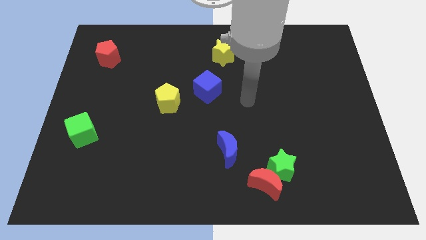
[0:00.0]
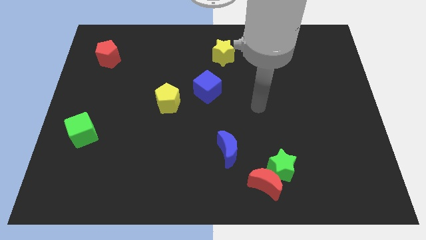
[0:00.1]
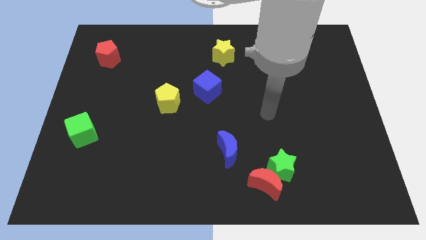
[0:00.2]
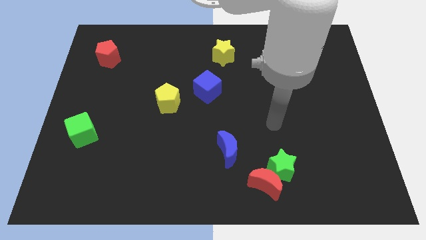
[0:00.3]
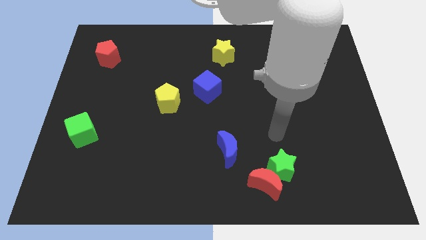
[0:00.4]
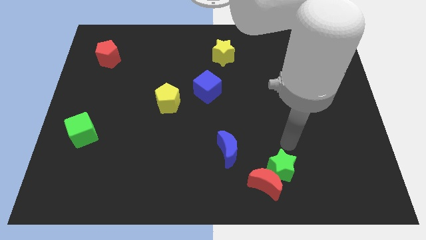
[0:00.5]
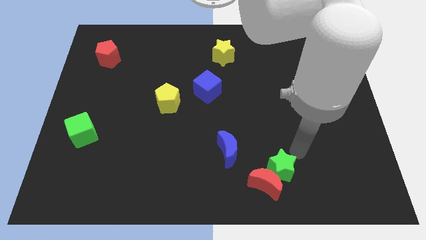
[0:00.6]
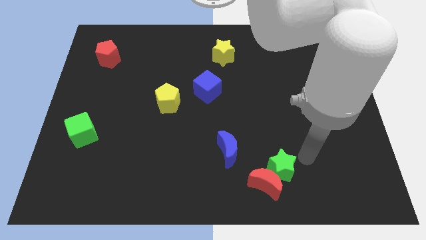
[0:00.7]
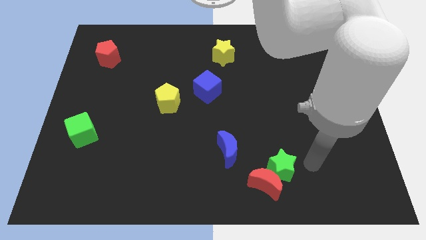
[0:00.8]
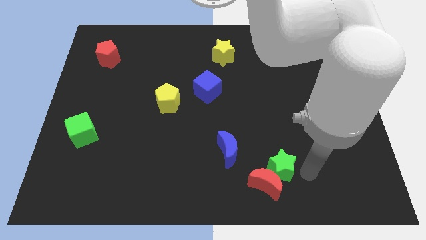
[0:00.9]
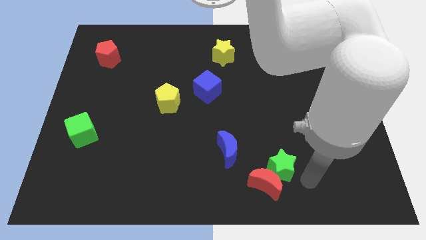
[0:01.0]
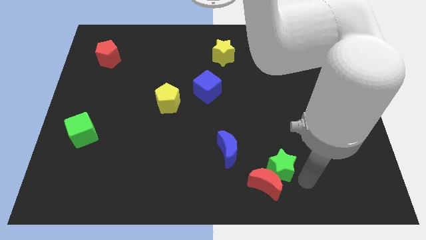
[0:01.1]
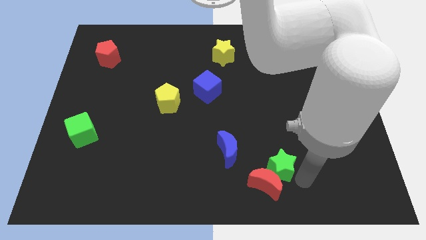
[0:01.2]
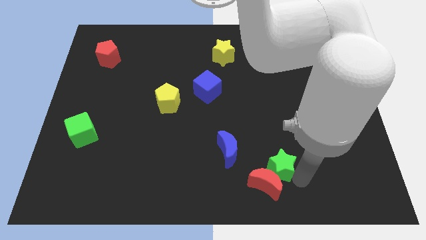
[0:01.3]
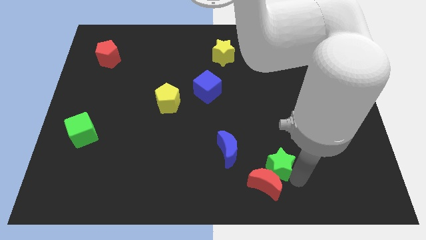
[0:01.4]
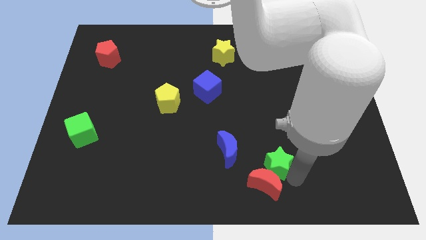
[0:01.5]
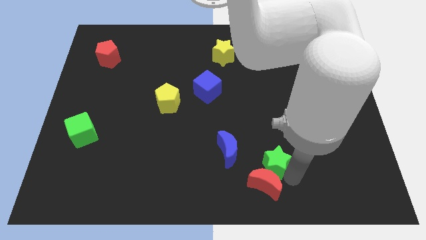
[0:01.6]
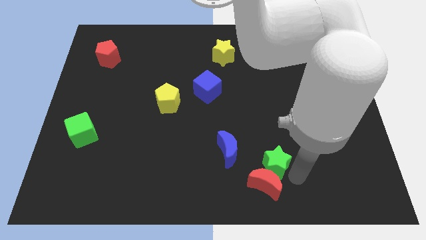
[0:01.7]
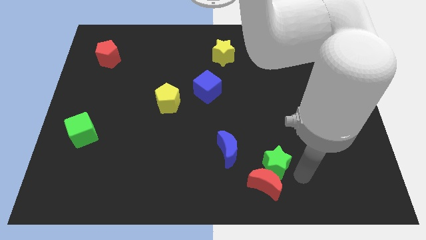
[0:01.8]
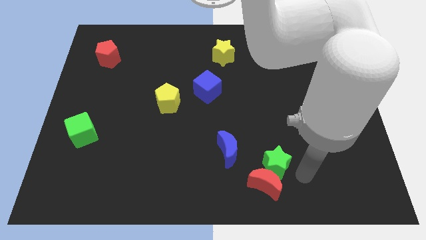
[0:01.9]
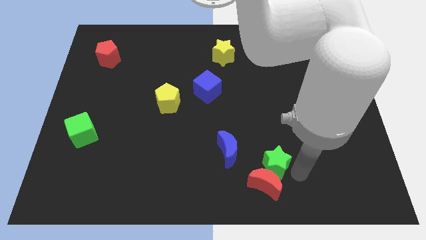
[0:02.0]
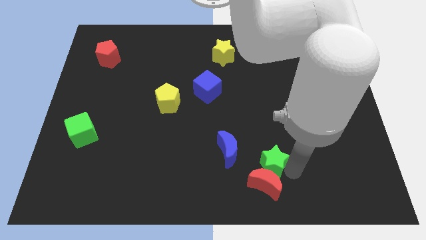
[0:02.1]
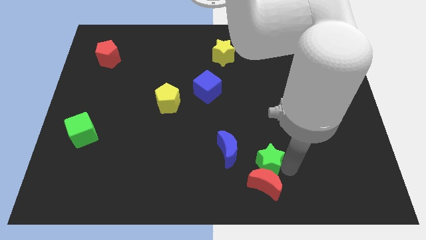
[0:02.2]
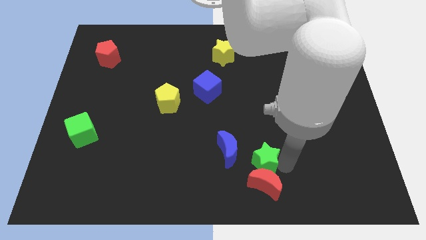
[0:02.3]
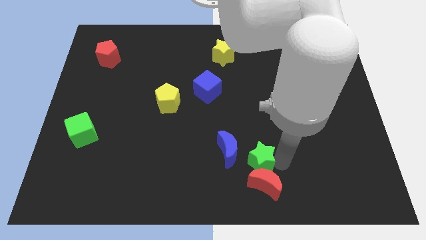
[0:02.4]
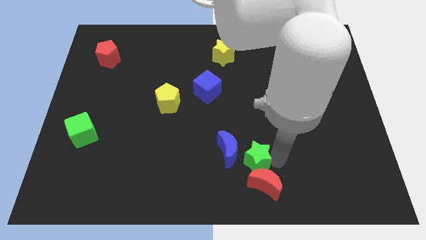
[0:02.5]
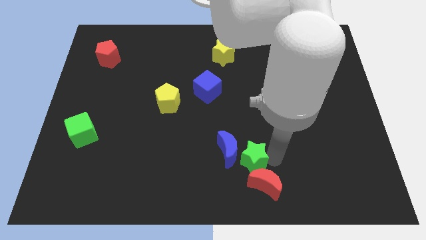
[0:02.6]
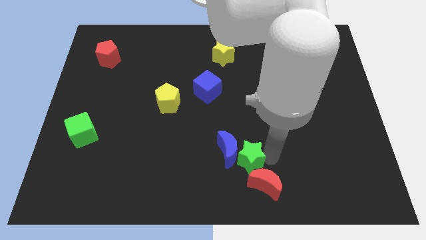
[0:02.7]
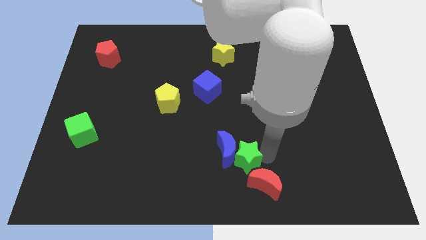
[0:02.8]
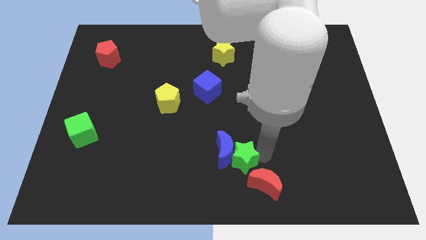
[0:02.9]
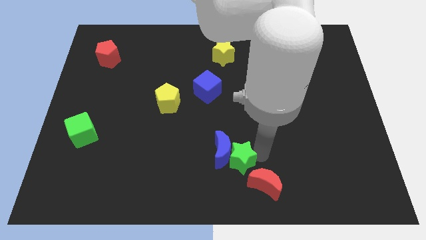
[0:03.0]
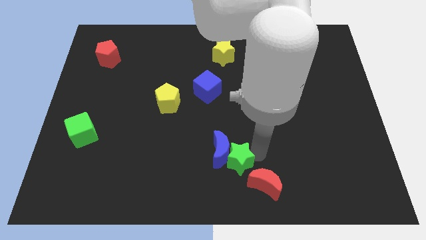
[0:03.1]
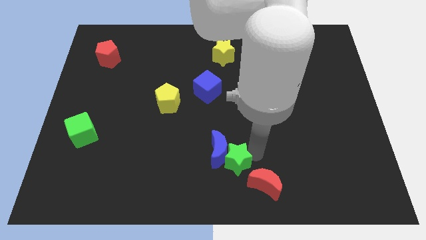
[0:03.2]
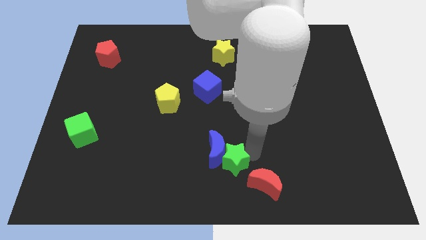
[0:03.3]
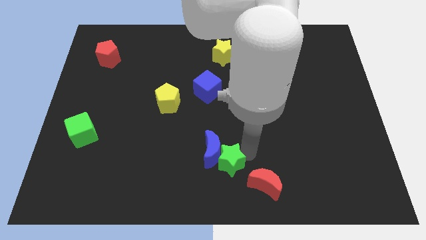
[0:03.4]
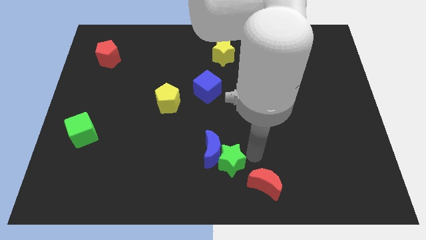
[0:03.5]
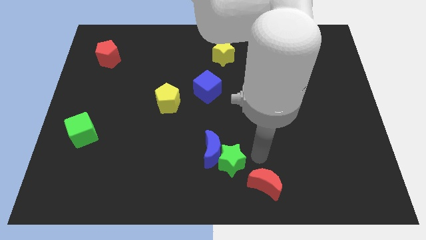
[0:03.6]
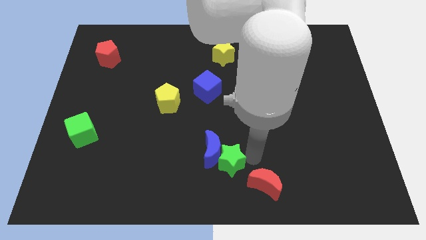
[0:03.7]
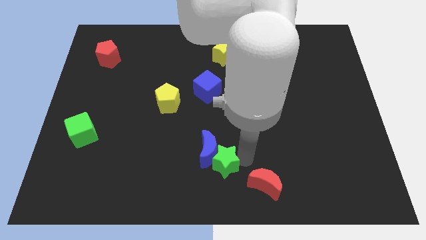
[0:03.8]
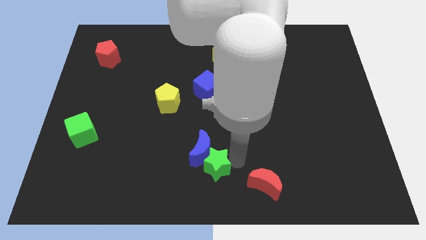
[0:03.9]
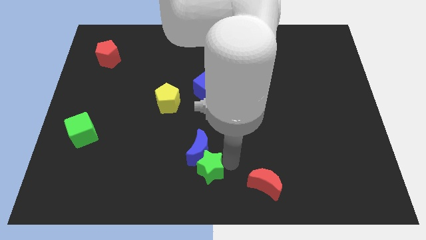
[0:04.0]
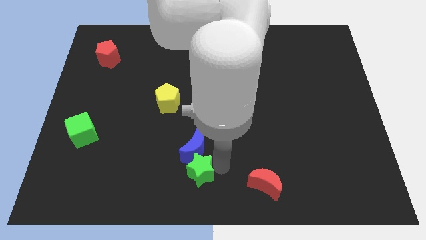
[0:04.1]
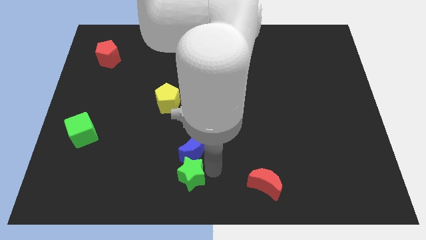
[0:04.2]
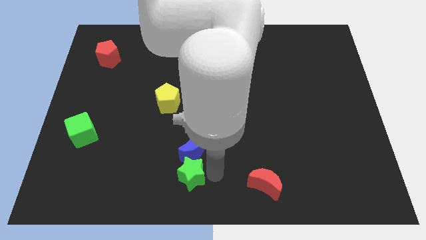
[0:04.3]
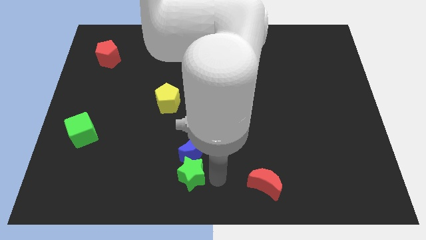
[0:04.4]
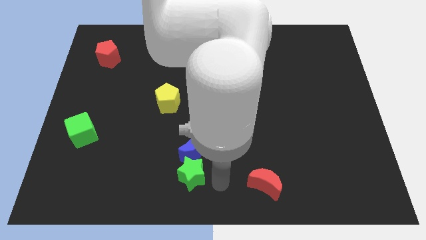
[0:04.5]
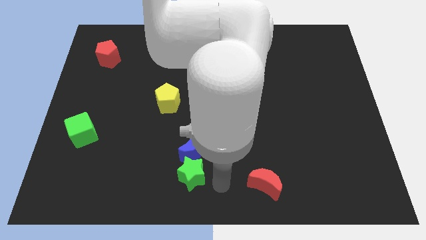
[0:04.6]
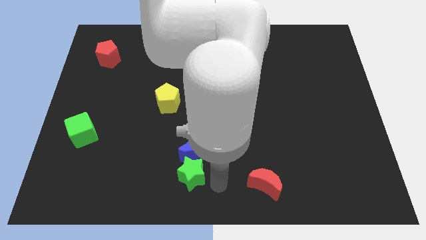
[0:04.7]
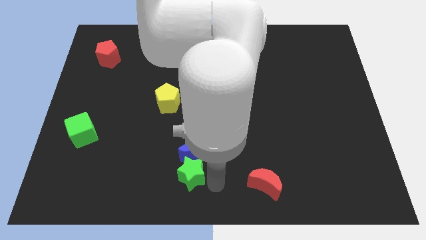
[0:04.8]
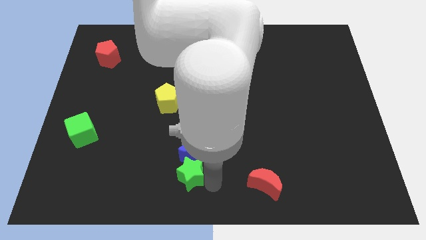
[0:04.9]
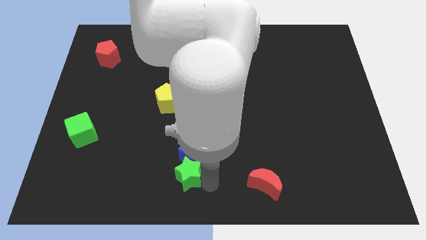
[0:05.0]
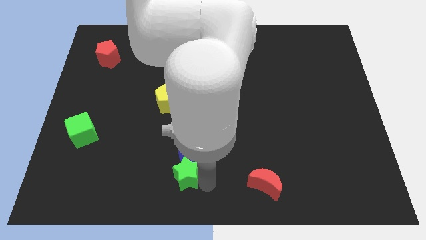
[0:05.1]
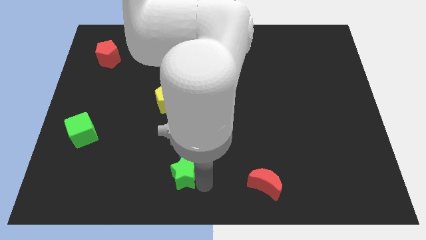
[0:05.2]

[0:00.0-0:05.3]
move the green star left

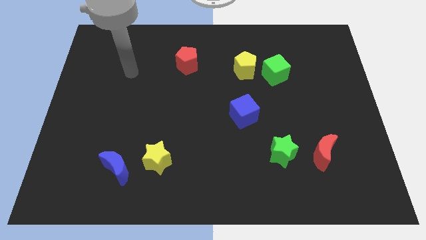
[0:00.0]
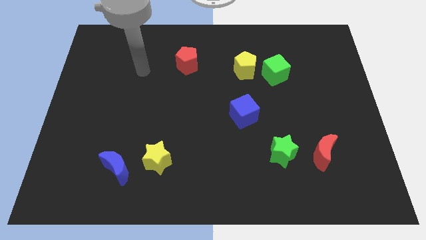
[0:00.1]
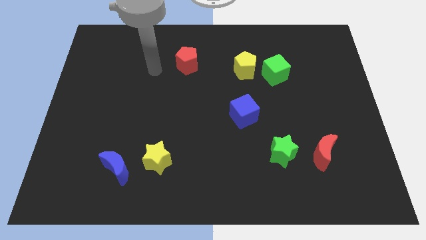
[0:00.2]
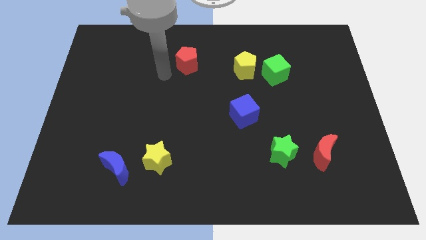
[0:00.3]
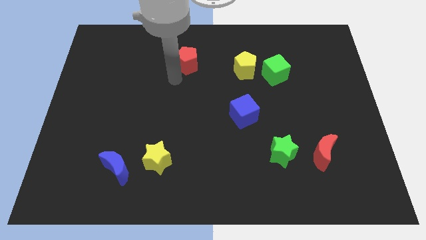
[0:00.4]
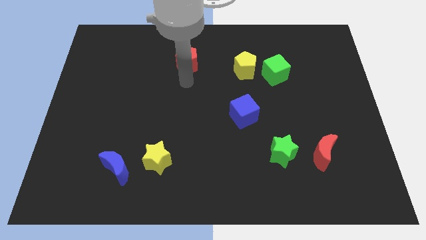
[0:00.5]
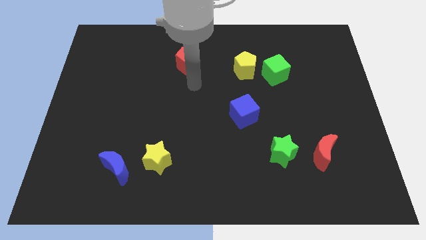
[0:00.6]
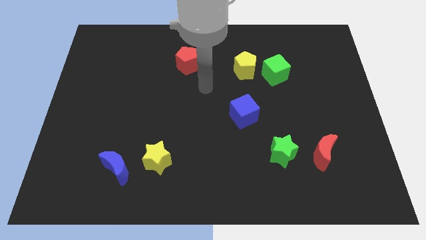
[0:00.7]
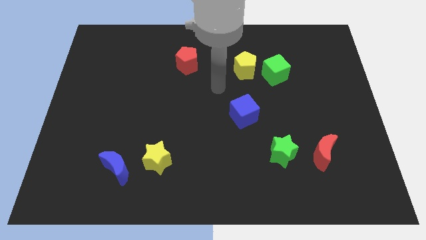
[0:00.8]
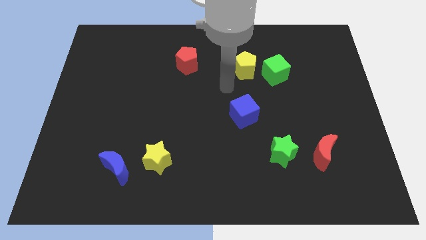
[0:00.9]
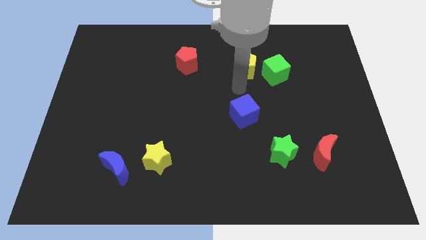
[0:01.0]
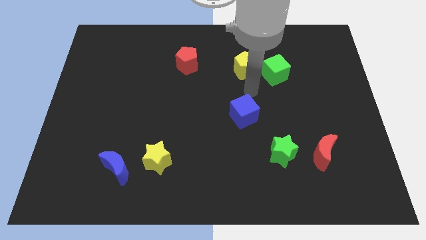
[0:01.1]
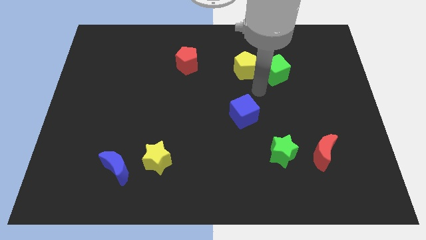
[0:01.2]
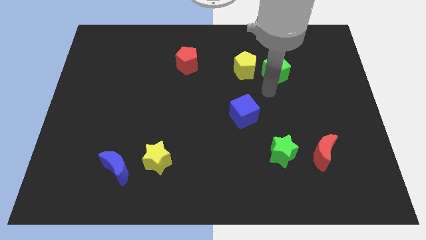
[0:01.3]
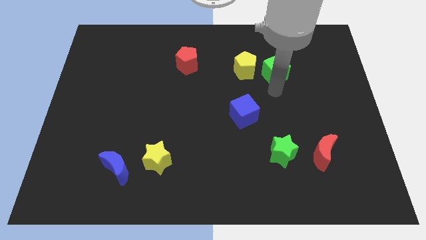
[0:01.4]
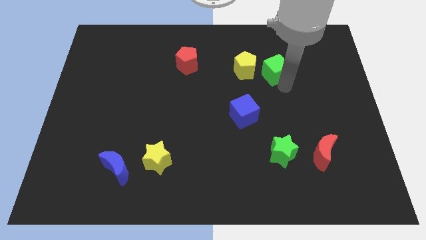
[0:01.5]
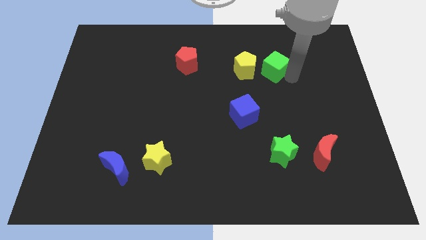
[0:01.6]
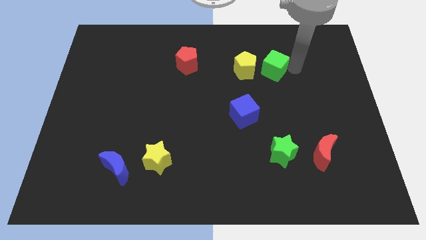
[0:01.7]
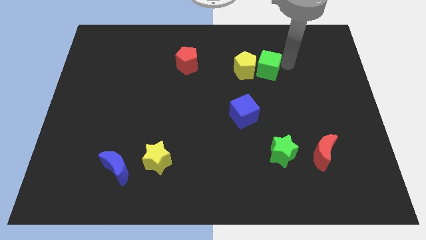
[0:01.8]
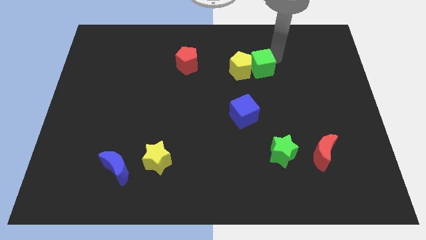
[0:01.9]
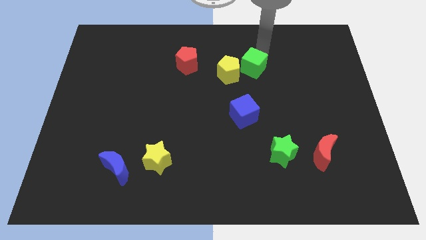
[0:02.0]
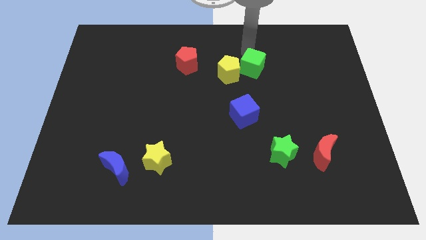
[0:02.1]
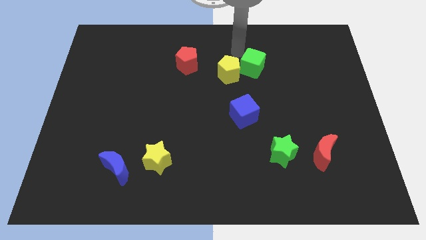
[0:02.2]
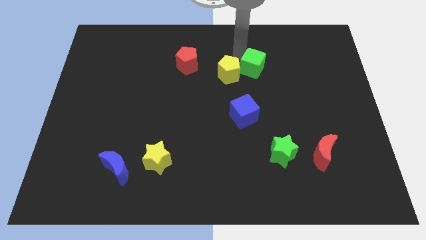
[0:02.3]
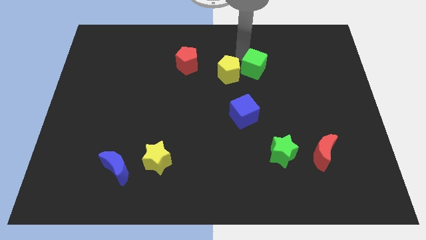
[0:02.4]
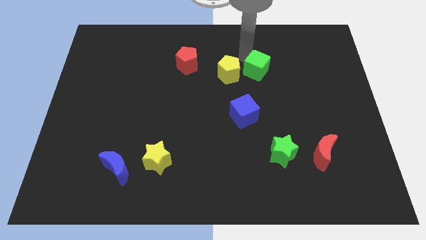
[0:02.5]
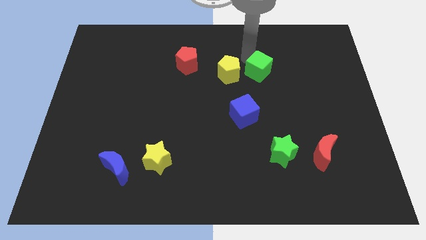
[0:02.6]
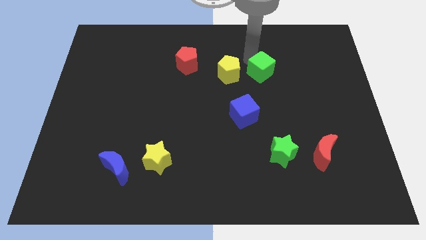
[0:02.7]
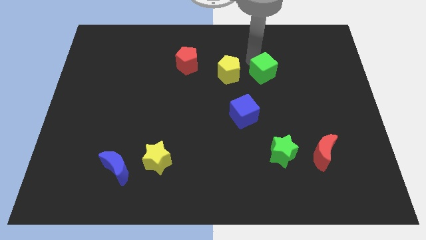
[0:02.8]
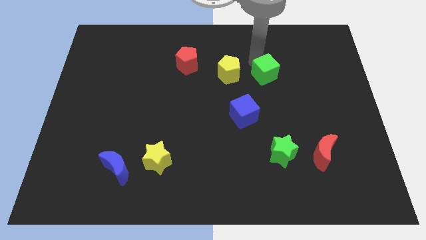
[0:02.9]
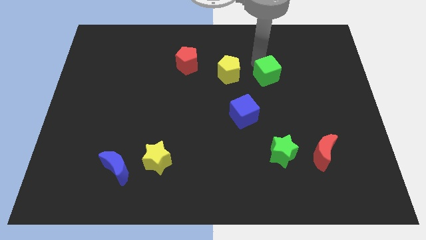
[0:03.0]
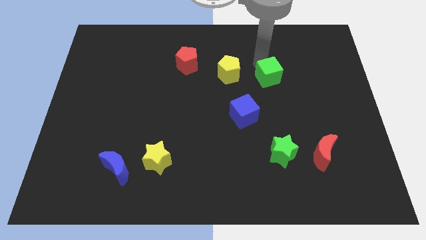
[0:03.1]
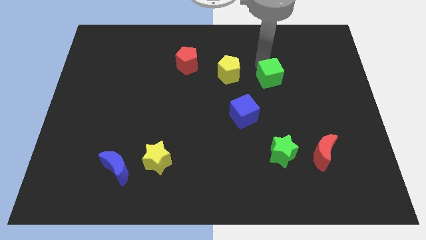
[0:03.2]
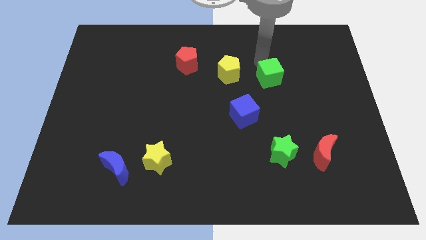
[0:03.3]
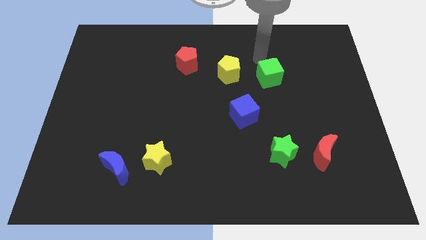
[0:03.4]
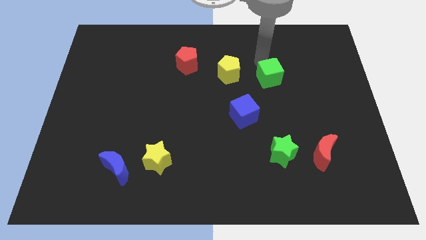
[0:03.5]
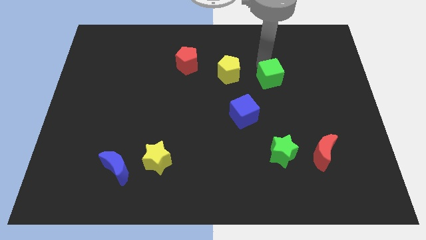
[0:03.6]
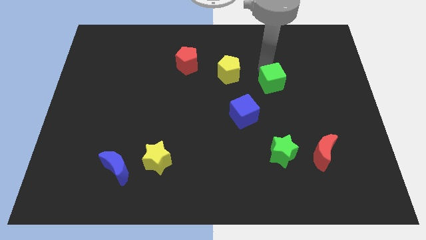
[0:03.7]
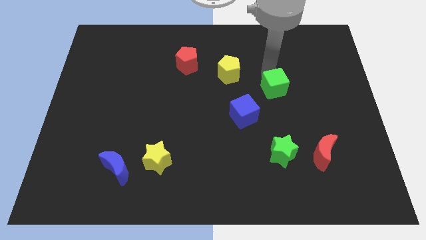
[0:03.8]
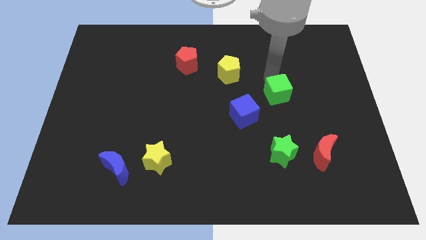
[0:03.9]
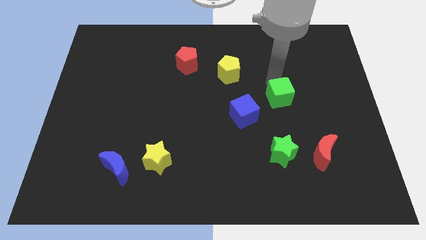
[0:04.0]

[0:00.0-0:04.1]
slightly move the green cube down
